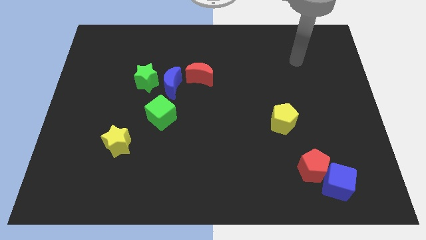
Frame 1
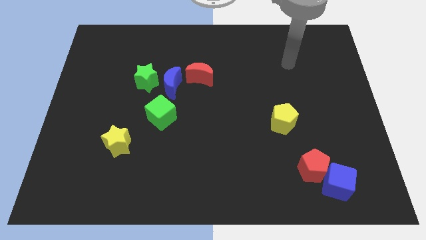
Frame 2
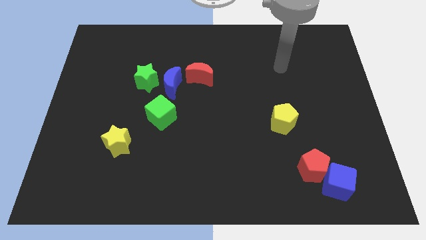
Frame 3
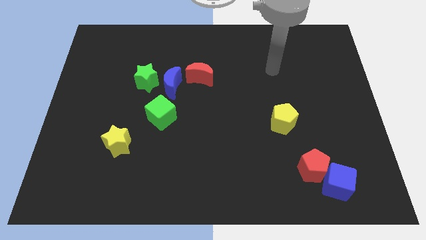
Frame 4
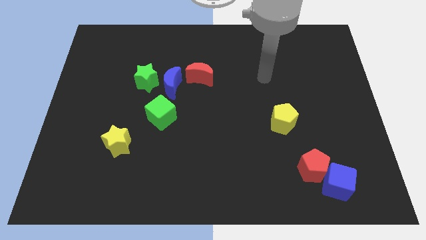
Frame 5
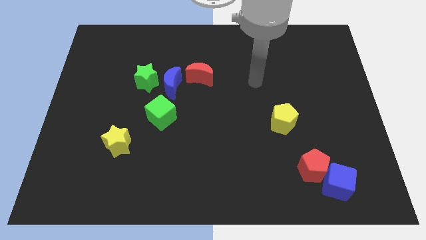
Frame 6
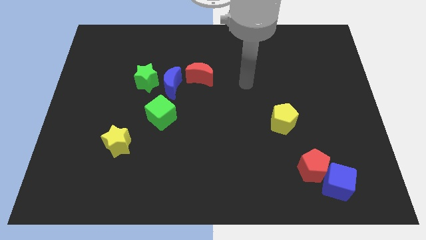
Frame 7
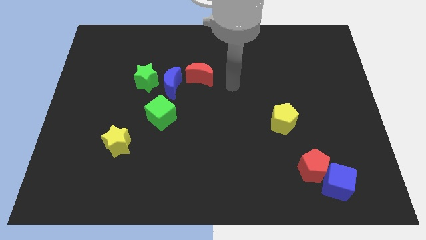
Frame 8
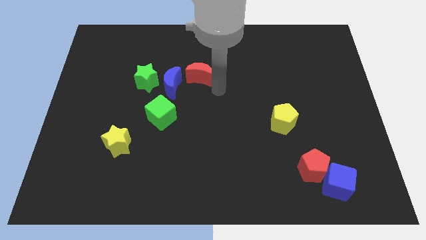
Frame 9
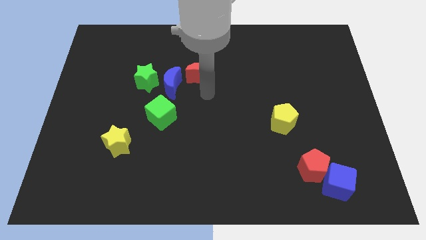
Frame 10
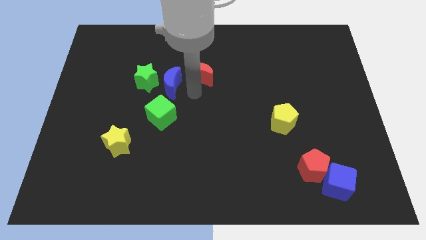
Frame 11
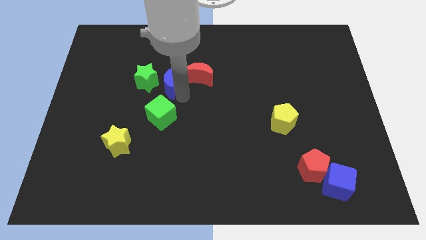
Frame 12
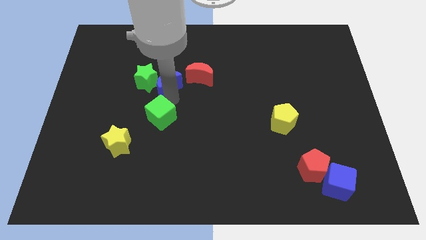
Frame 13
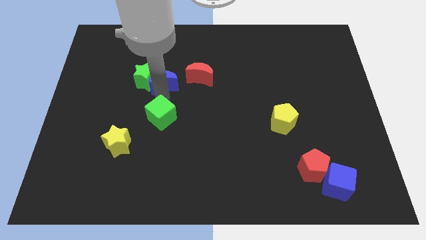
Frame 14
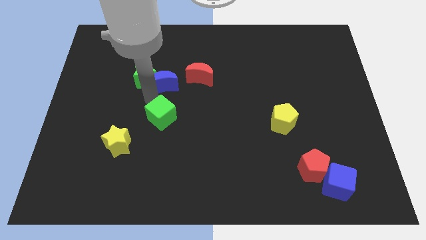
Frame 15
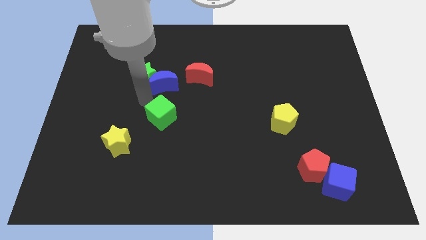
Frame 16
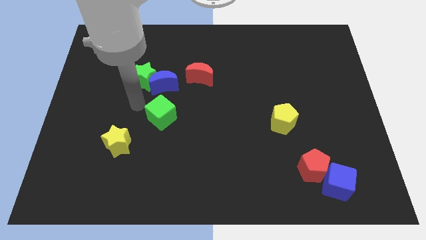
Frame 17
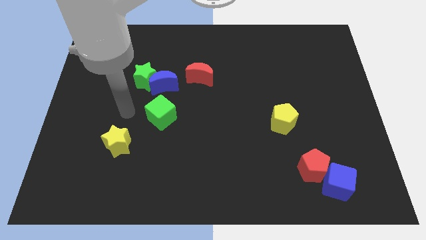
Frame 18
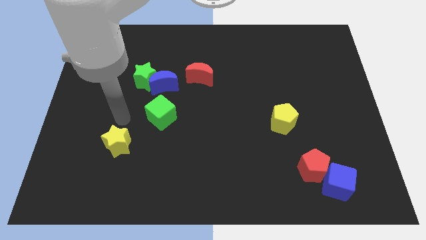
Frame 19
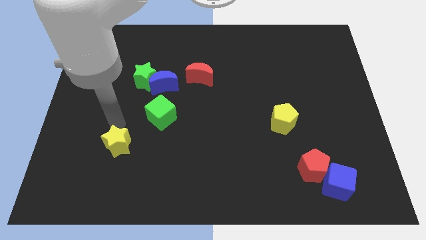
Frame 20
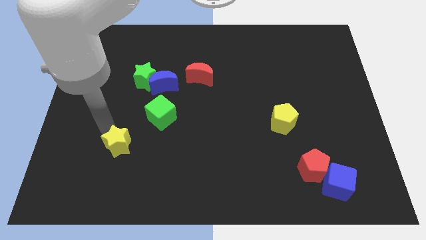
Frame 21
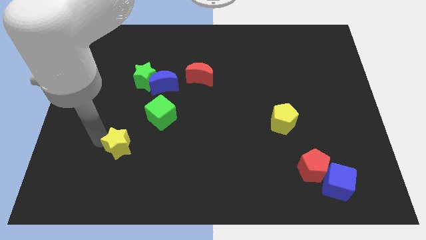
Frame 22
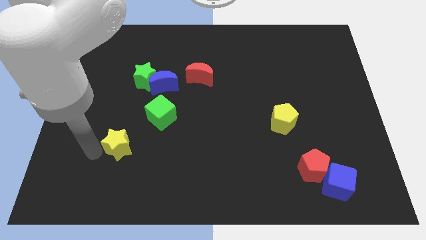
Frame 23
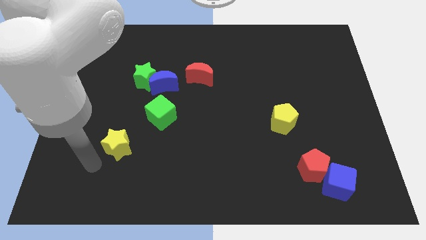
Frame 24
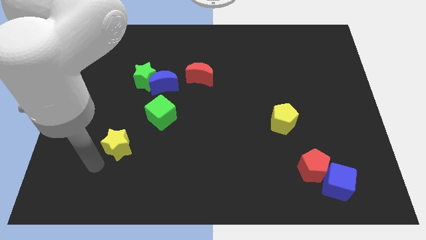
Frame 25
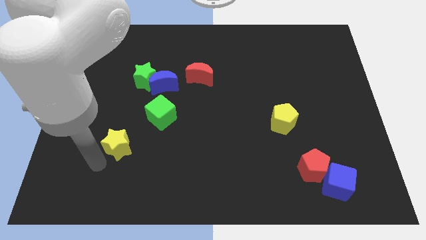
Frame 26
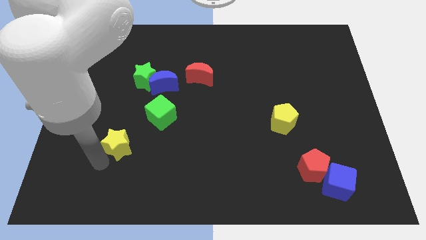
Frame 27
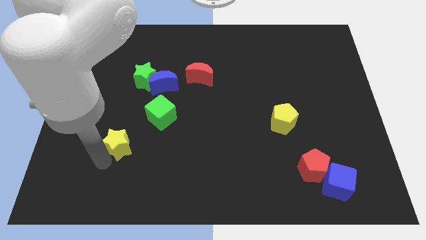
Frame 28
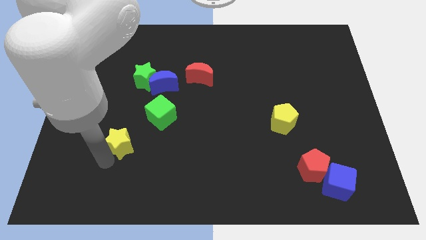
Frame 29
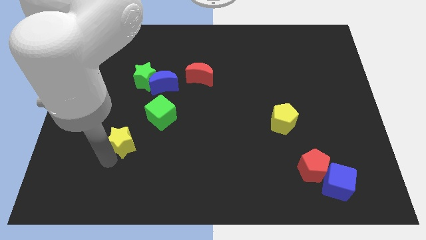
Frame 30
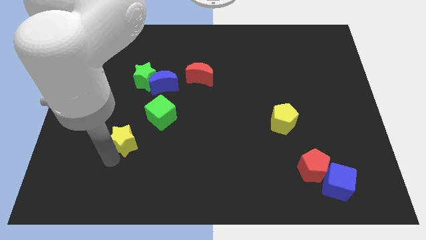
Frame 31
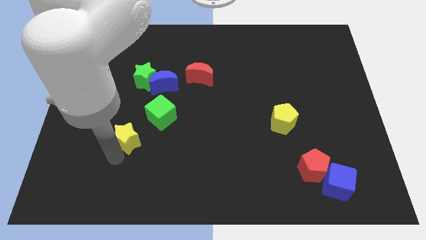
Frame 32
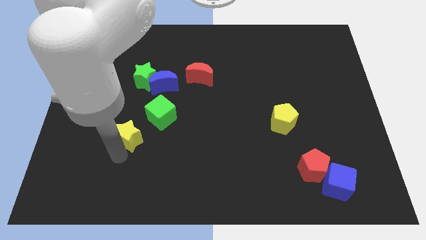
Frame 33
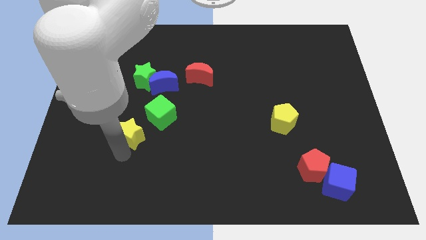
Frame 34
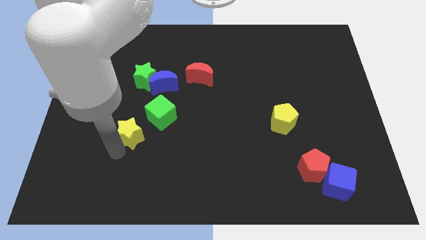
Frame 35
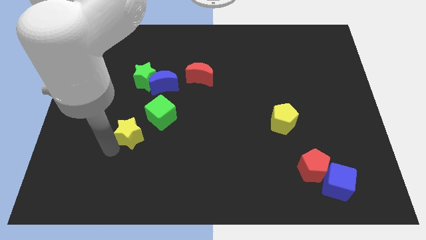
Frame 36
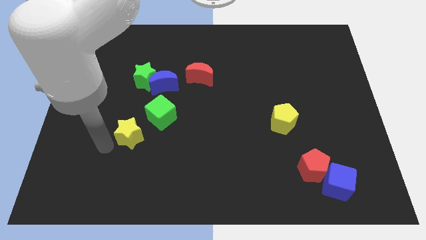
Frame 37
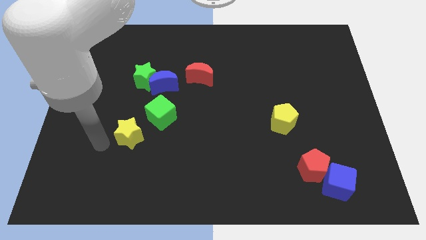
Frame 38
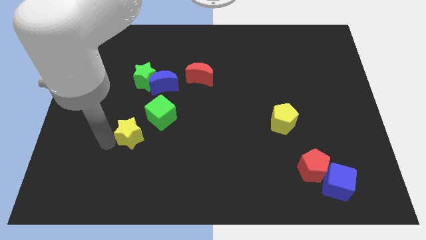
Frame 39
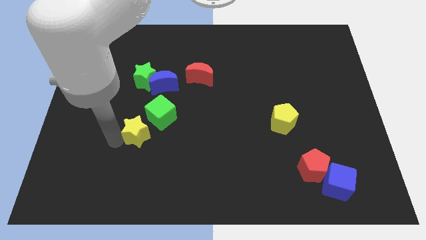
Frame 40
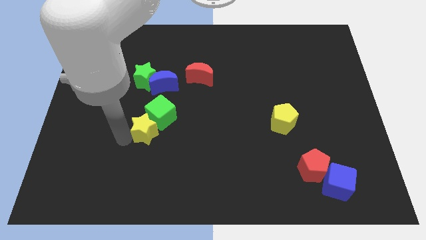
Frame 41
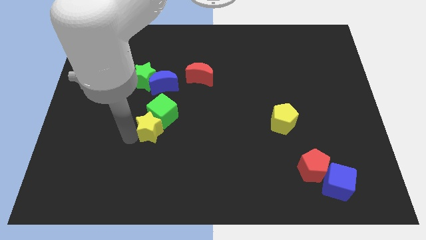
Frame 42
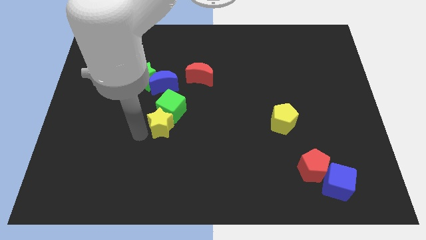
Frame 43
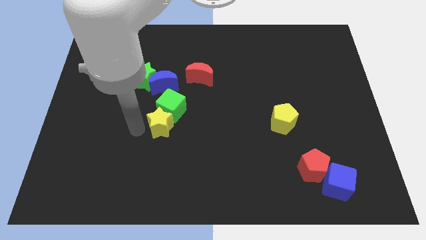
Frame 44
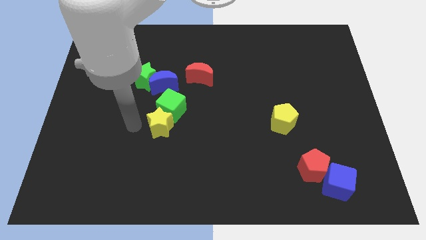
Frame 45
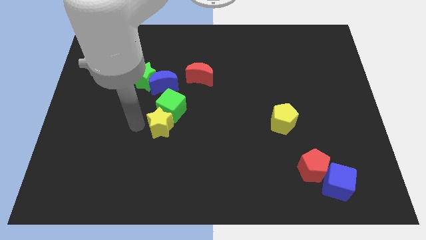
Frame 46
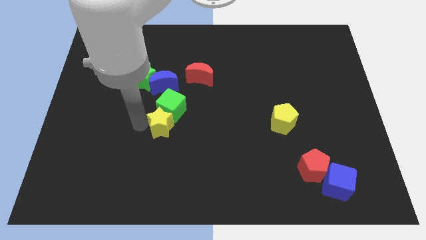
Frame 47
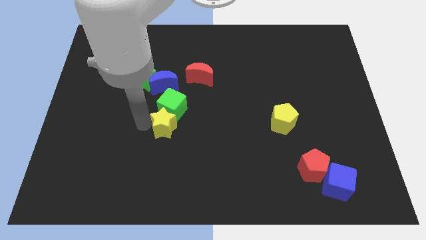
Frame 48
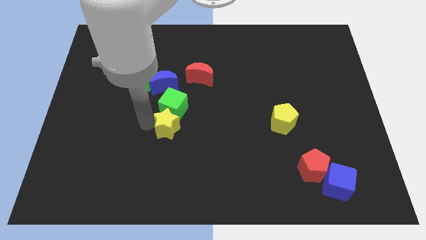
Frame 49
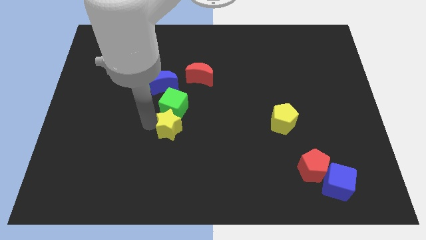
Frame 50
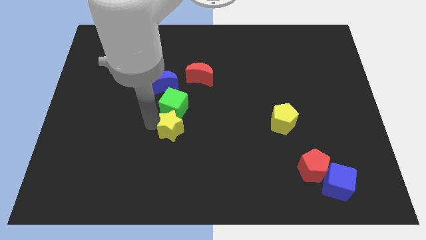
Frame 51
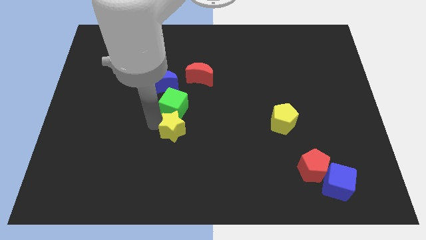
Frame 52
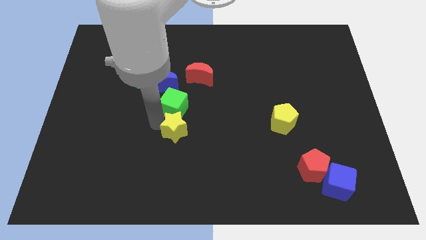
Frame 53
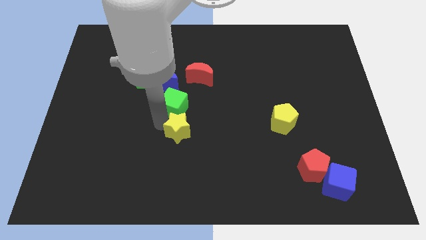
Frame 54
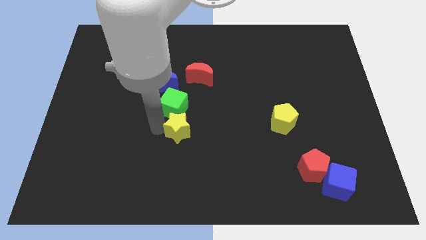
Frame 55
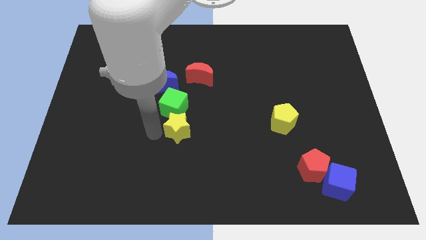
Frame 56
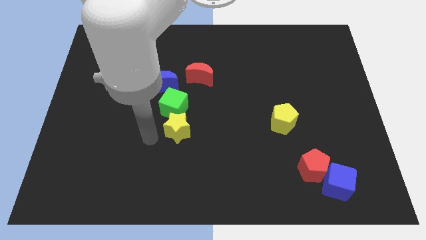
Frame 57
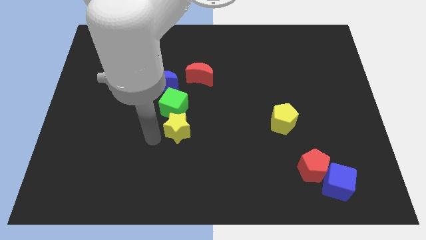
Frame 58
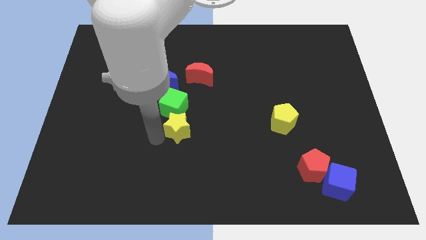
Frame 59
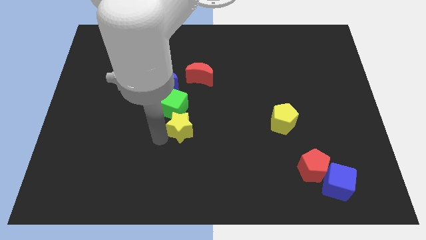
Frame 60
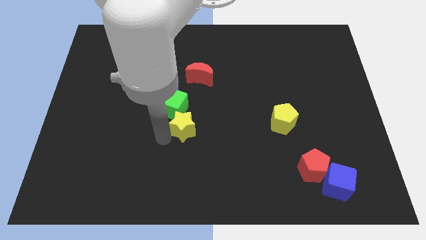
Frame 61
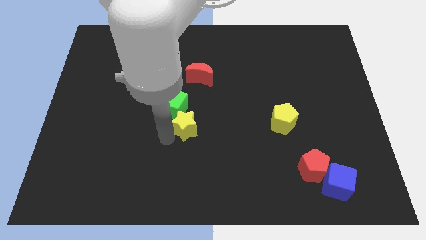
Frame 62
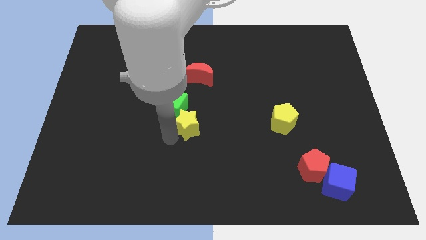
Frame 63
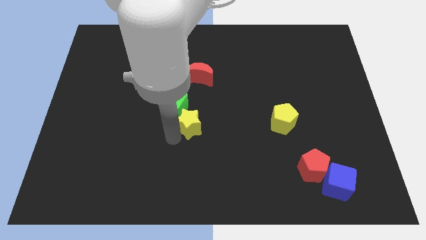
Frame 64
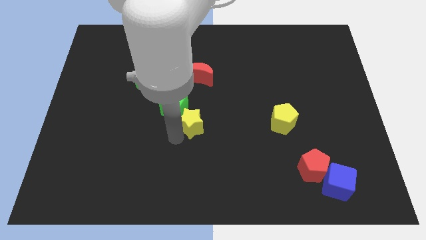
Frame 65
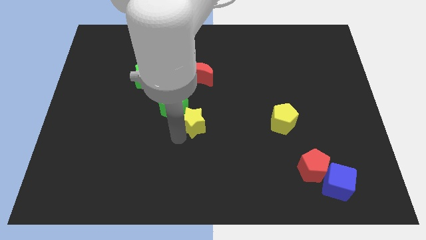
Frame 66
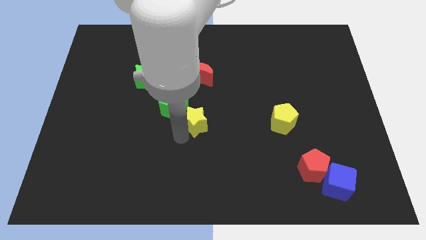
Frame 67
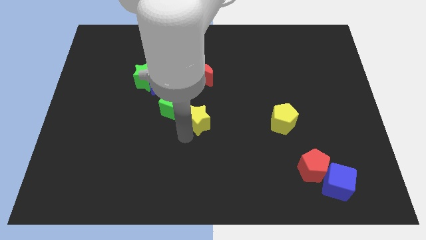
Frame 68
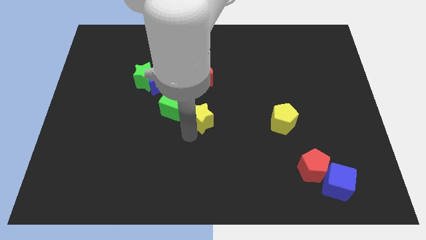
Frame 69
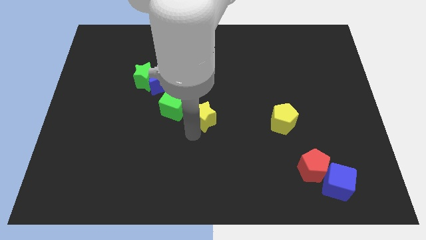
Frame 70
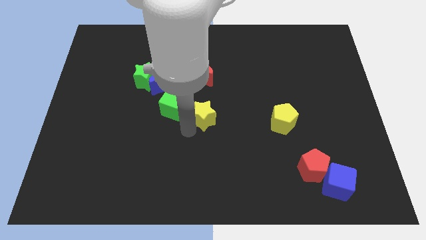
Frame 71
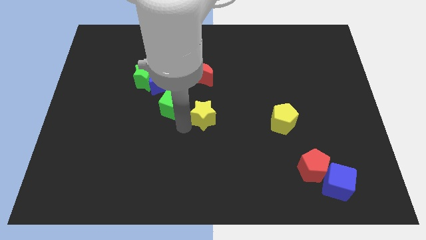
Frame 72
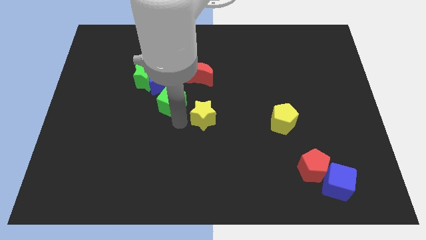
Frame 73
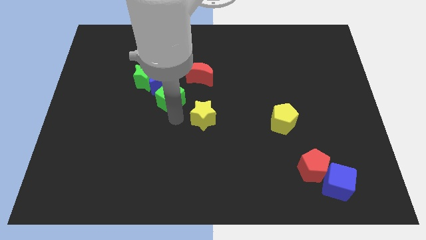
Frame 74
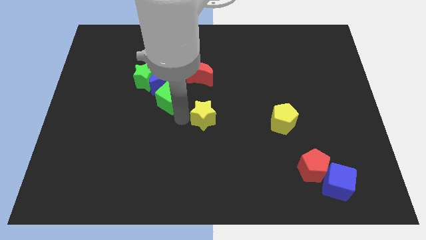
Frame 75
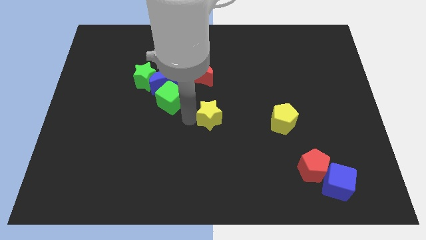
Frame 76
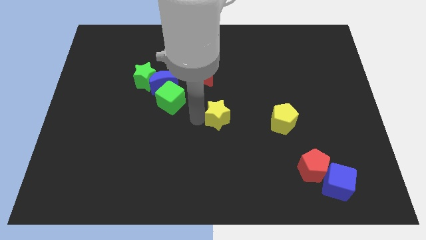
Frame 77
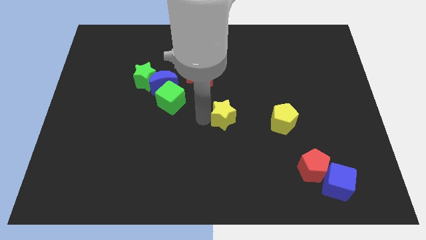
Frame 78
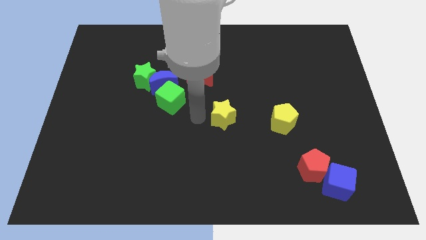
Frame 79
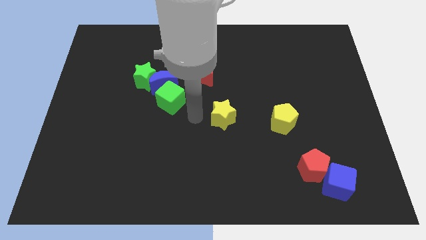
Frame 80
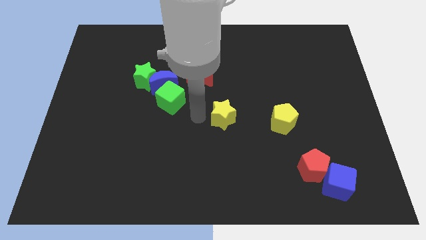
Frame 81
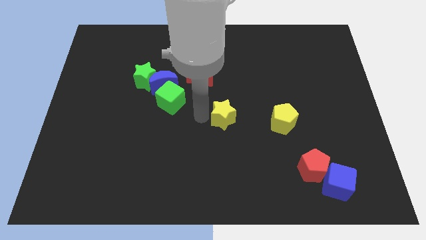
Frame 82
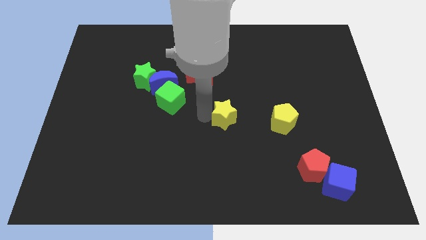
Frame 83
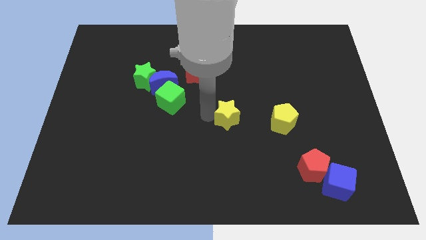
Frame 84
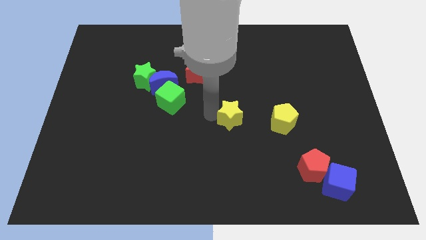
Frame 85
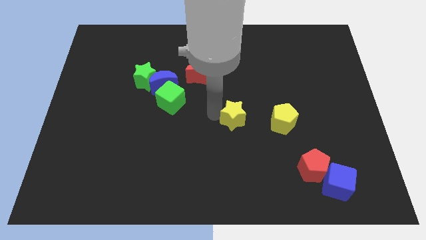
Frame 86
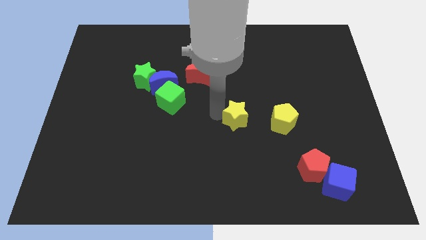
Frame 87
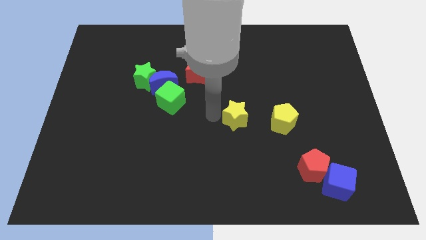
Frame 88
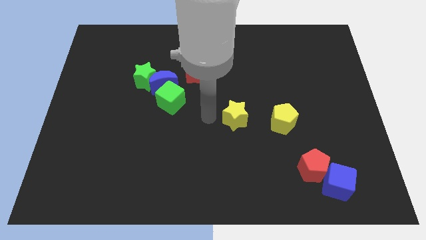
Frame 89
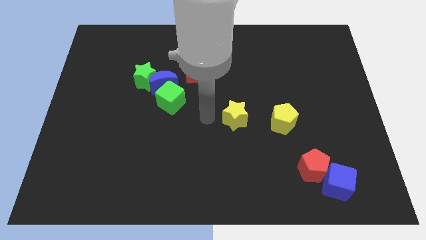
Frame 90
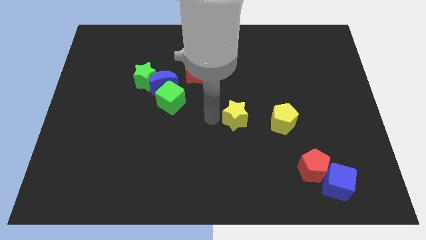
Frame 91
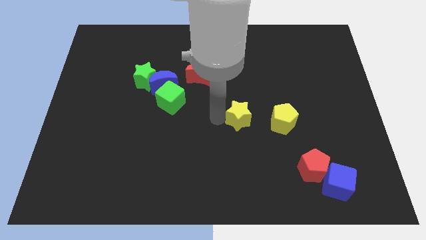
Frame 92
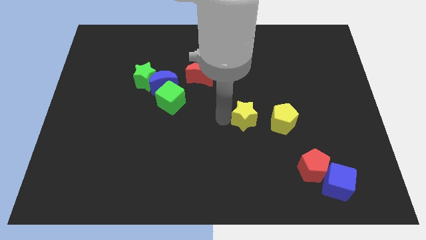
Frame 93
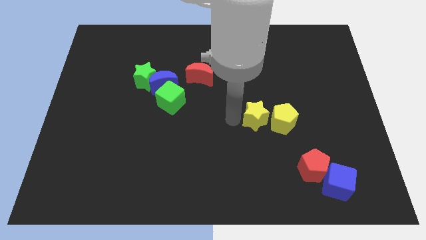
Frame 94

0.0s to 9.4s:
put the yellow star towards the yellow pentagon
